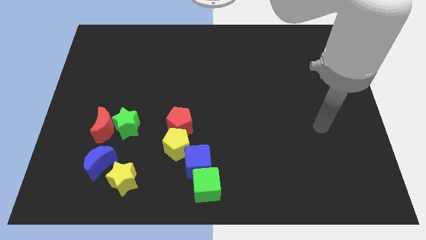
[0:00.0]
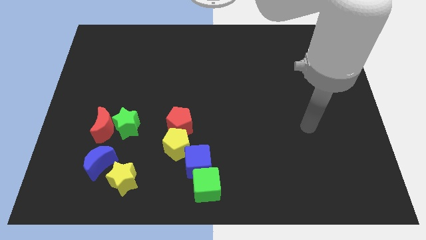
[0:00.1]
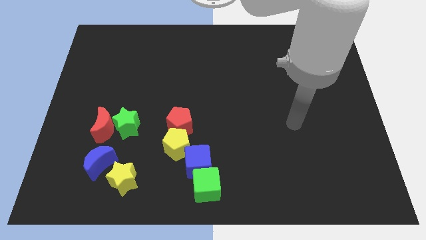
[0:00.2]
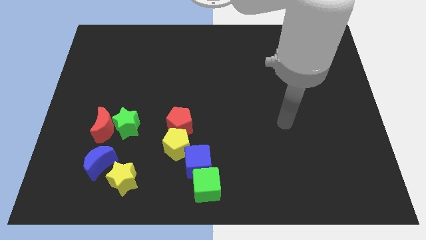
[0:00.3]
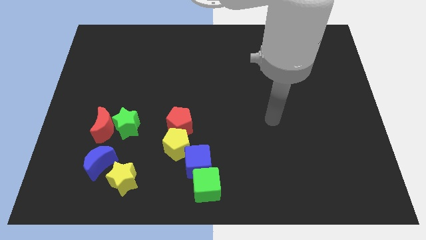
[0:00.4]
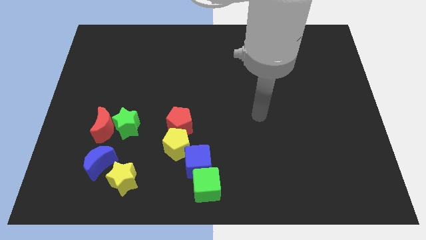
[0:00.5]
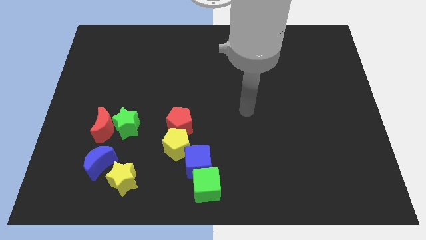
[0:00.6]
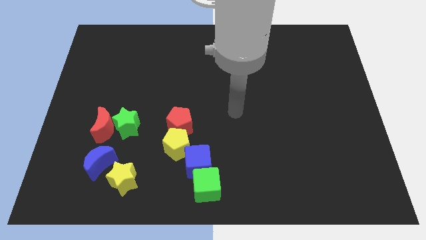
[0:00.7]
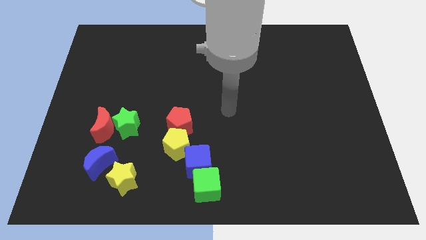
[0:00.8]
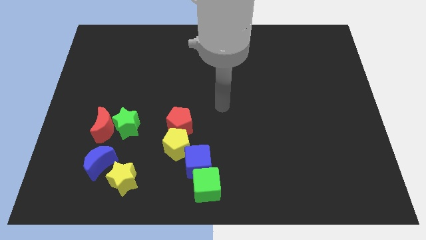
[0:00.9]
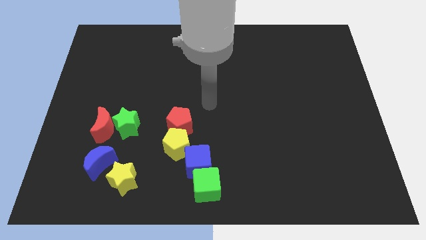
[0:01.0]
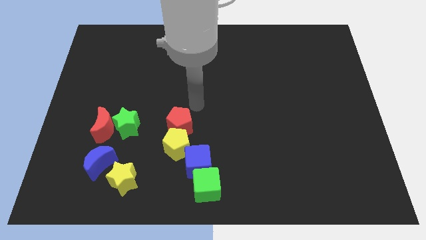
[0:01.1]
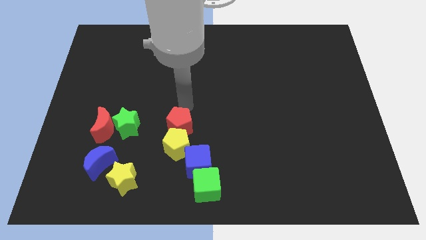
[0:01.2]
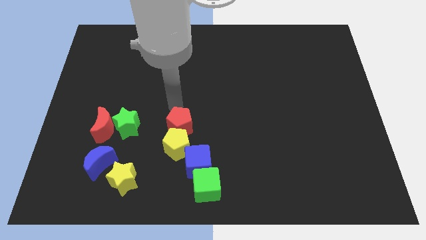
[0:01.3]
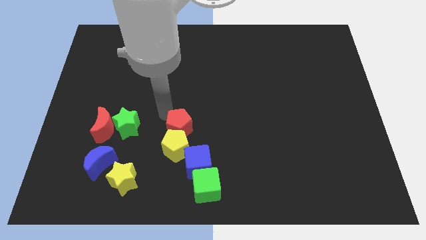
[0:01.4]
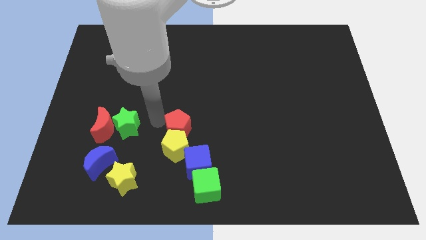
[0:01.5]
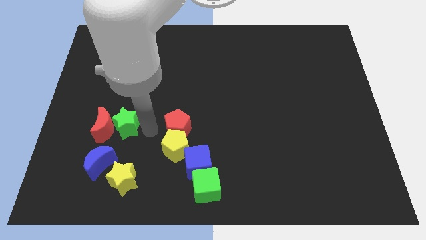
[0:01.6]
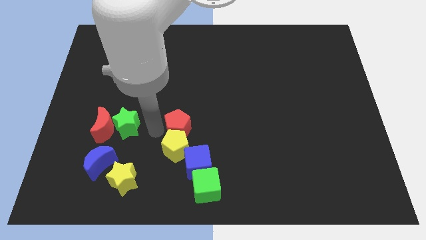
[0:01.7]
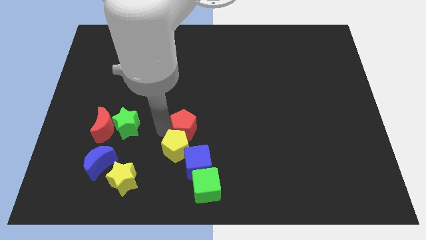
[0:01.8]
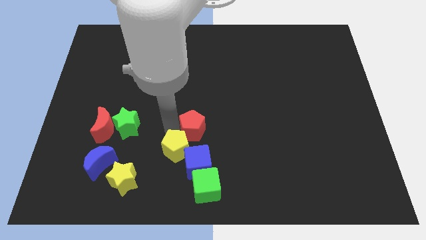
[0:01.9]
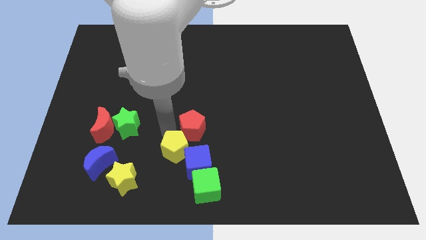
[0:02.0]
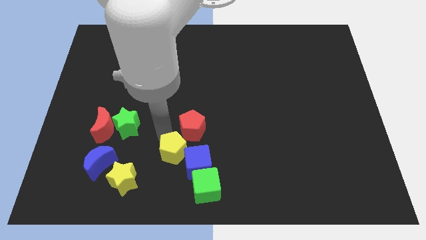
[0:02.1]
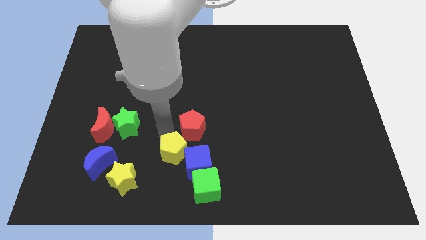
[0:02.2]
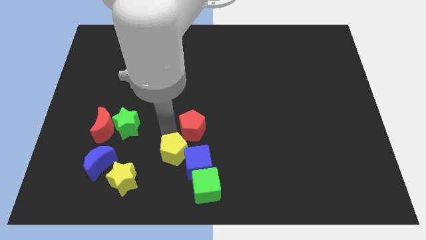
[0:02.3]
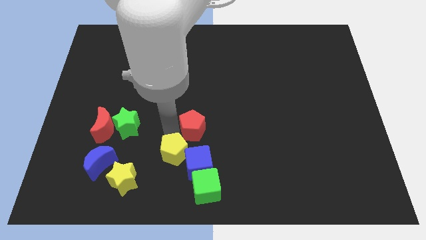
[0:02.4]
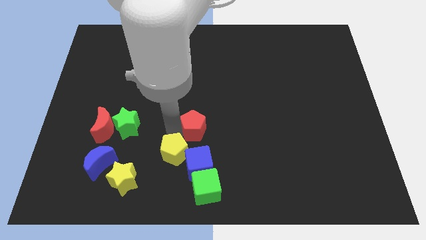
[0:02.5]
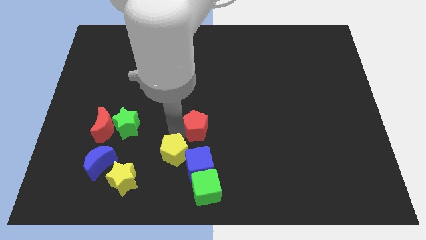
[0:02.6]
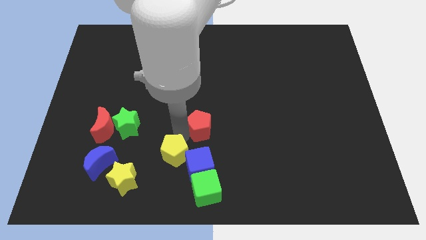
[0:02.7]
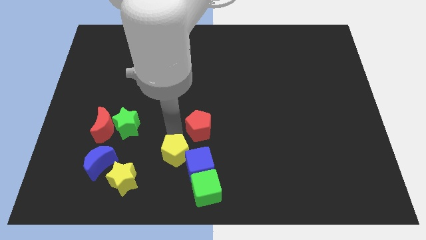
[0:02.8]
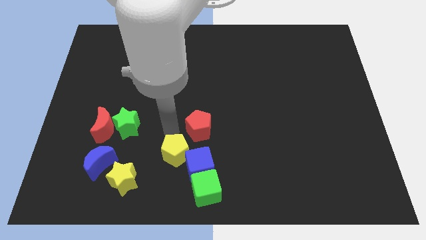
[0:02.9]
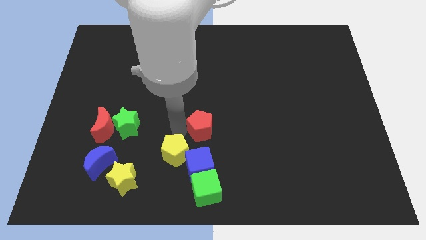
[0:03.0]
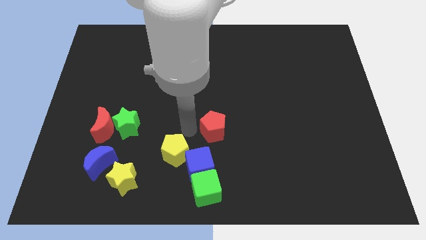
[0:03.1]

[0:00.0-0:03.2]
push the red pentagon to the right somewhat

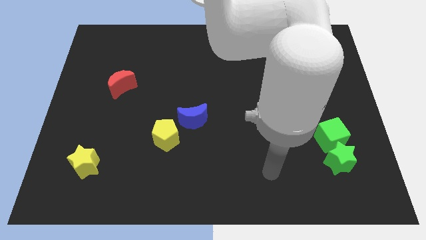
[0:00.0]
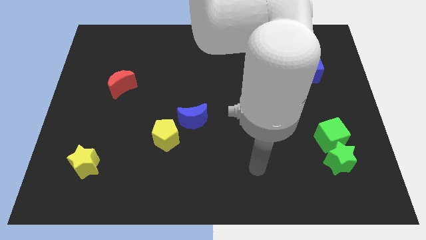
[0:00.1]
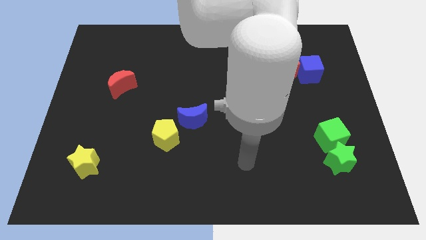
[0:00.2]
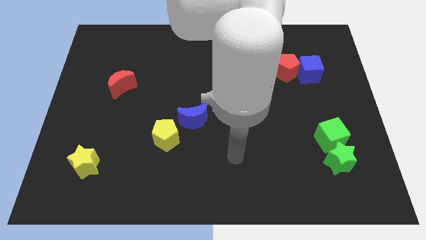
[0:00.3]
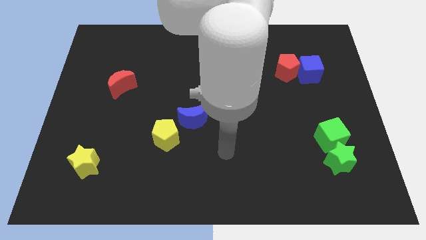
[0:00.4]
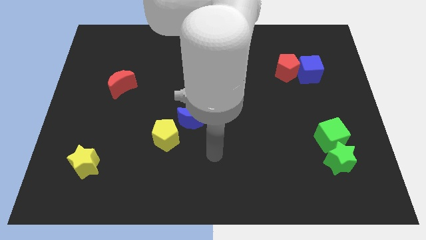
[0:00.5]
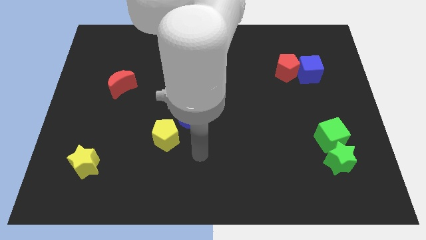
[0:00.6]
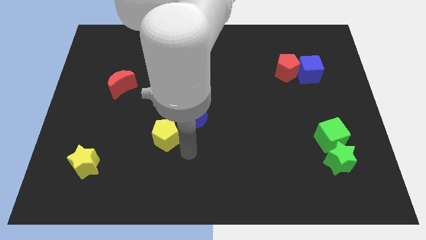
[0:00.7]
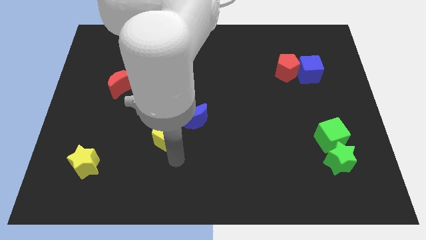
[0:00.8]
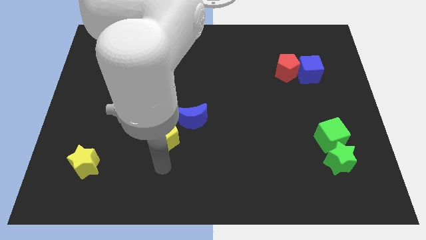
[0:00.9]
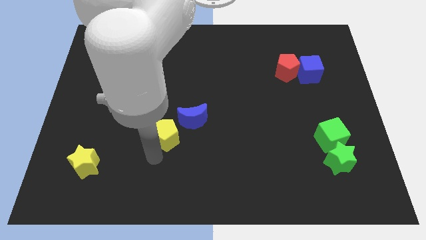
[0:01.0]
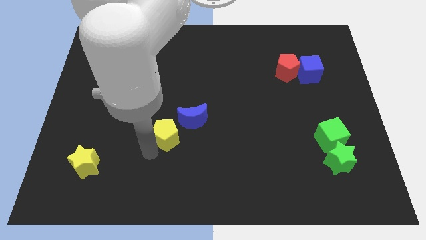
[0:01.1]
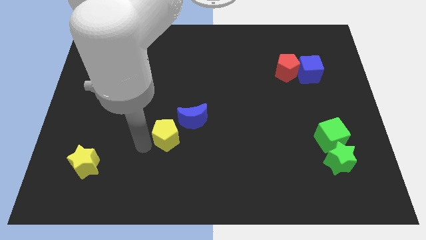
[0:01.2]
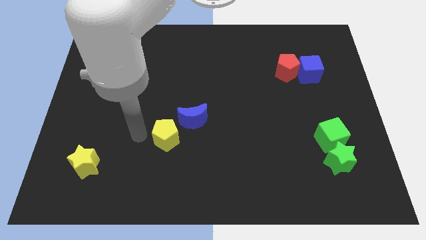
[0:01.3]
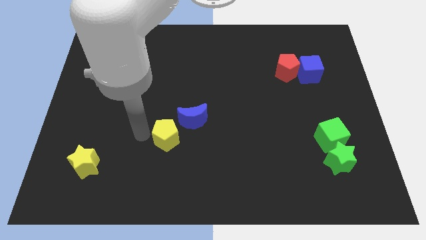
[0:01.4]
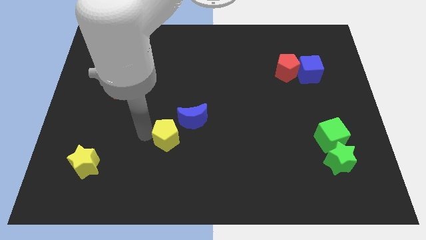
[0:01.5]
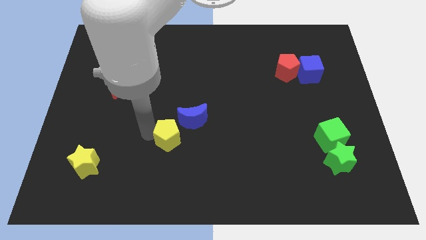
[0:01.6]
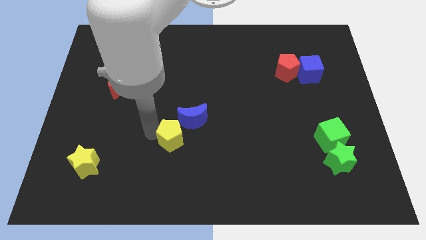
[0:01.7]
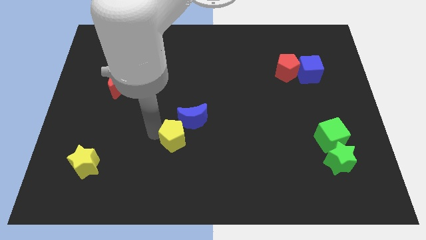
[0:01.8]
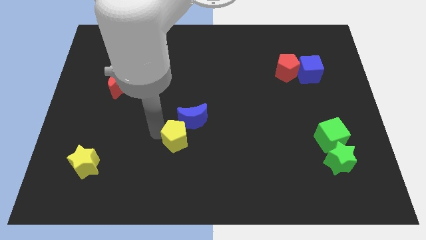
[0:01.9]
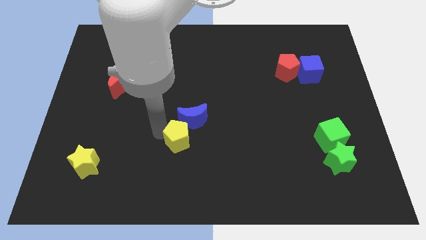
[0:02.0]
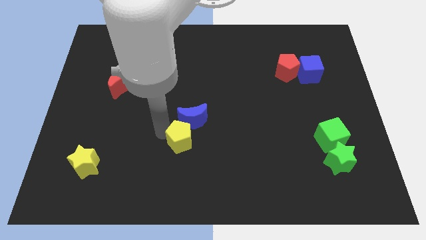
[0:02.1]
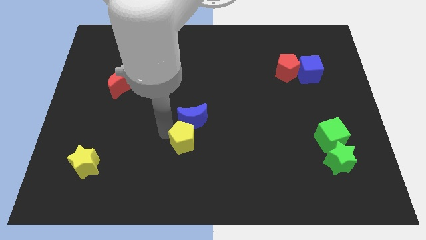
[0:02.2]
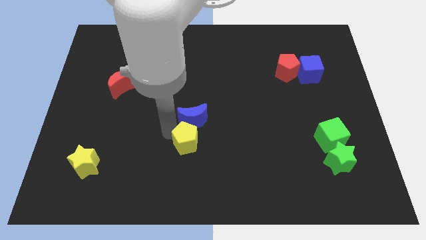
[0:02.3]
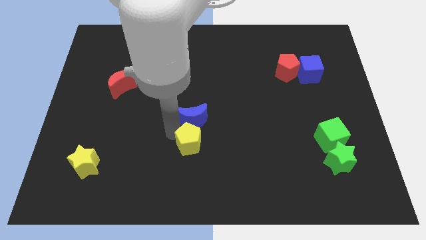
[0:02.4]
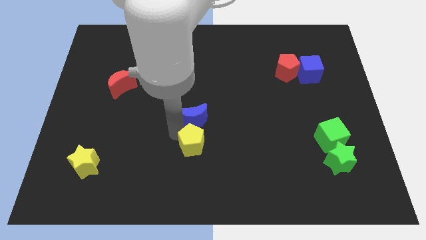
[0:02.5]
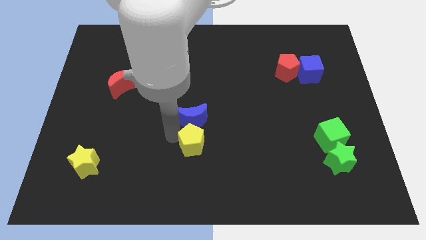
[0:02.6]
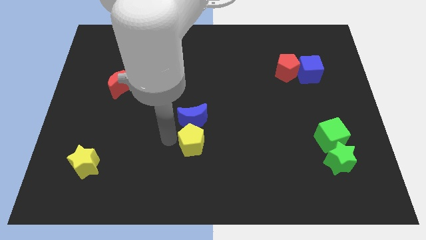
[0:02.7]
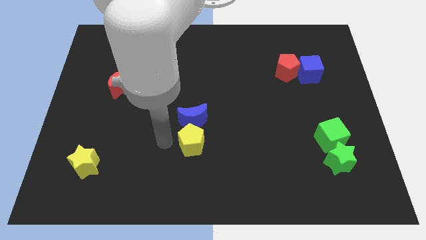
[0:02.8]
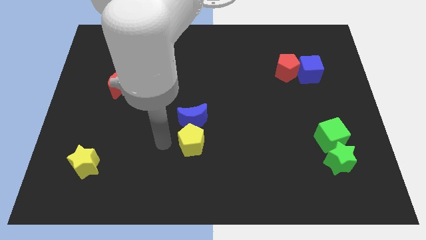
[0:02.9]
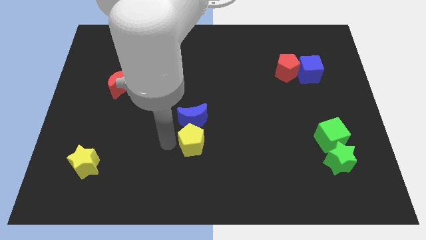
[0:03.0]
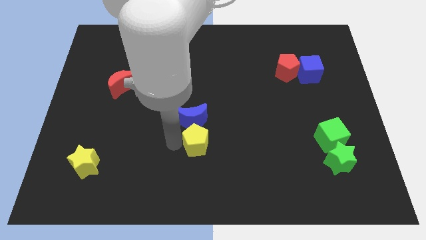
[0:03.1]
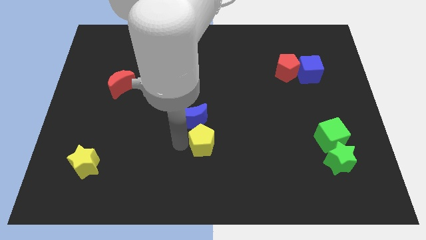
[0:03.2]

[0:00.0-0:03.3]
slide the yellow pentagon to the right slightly

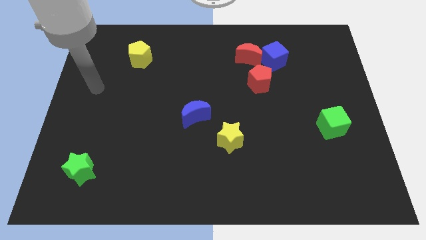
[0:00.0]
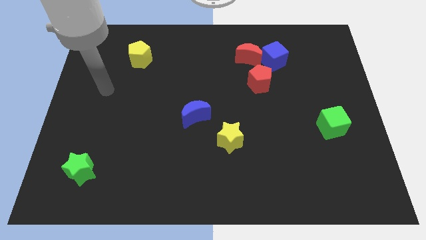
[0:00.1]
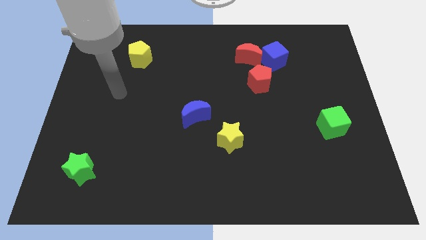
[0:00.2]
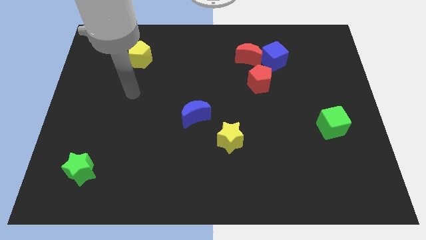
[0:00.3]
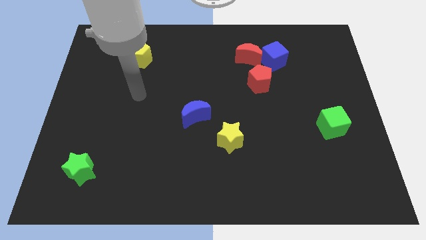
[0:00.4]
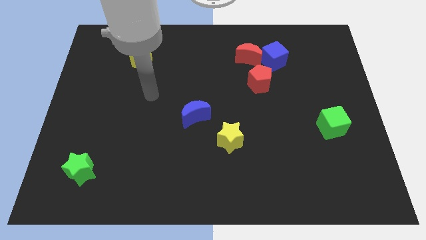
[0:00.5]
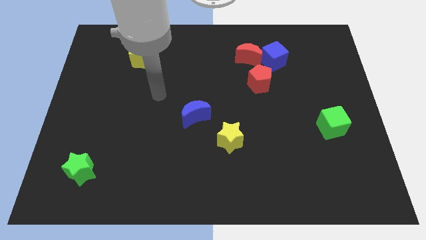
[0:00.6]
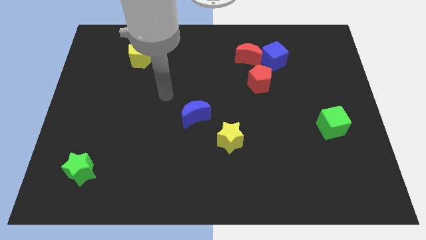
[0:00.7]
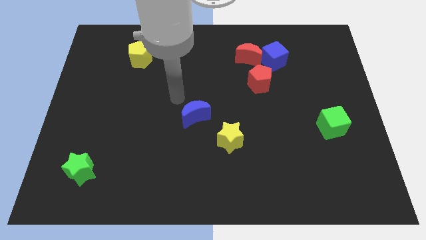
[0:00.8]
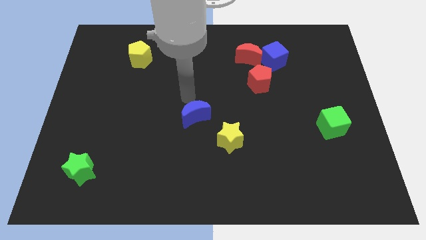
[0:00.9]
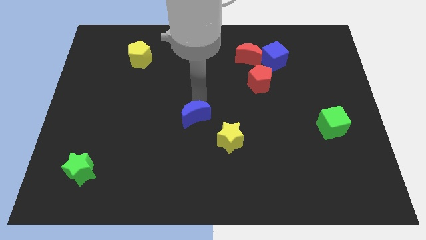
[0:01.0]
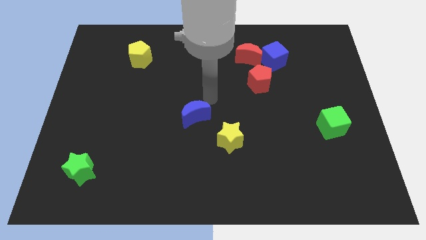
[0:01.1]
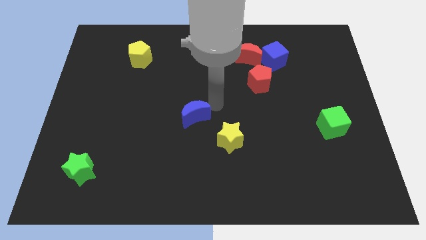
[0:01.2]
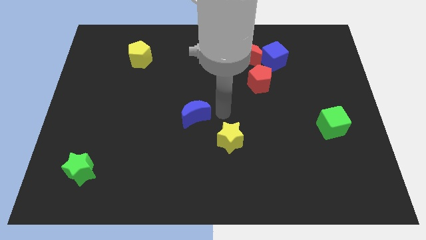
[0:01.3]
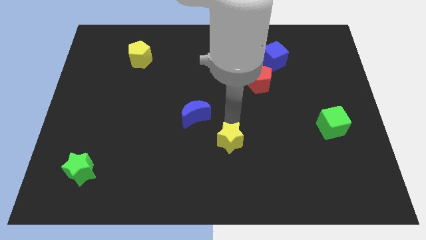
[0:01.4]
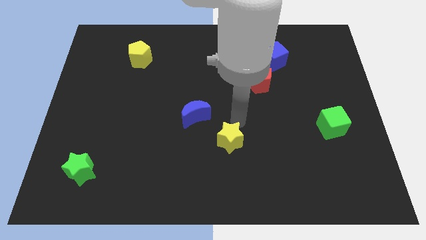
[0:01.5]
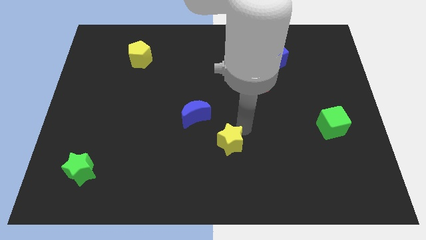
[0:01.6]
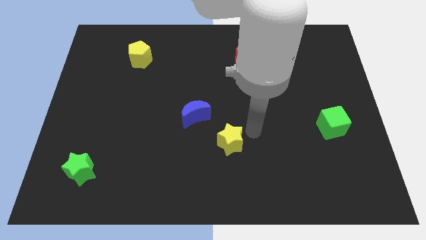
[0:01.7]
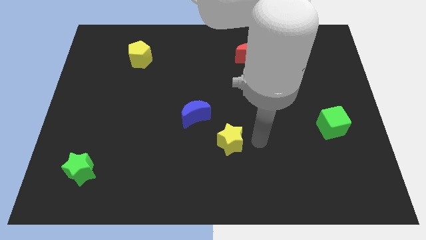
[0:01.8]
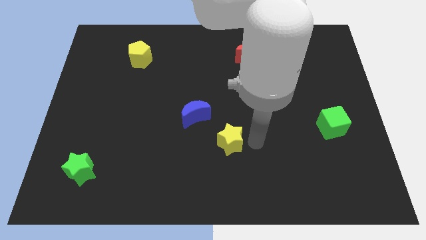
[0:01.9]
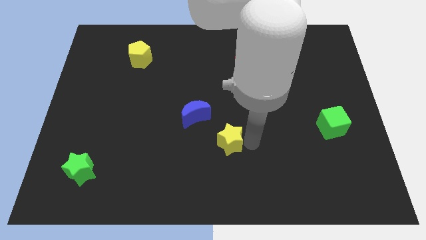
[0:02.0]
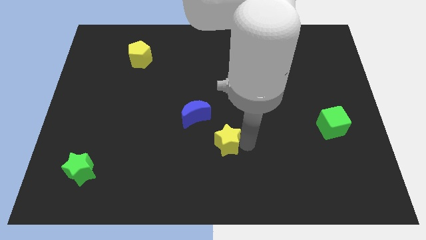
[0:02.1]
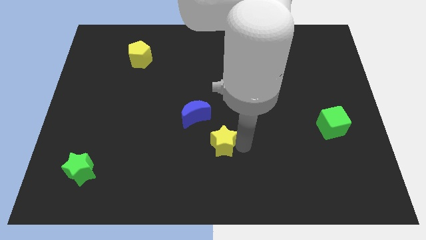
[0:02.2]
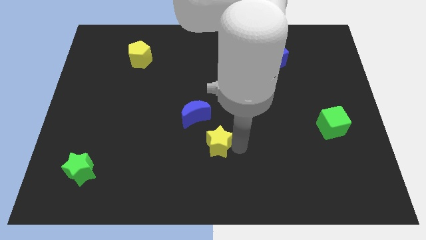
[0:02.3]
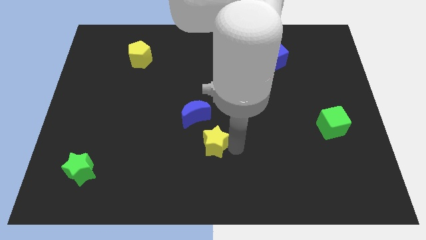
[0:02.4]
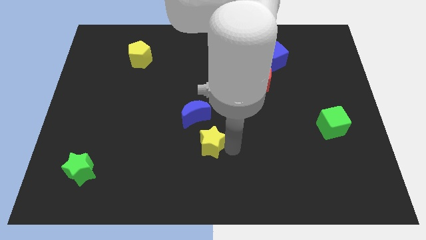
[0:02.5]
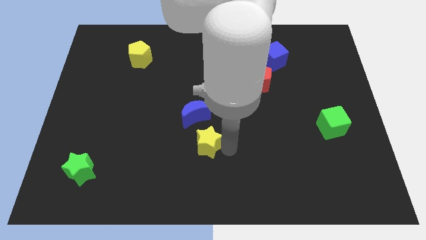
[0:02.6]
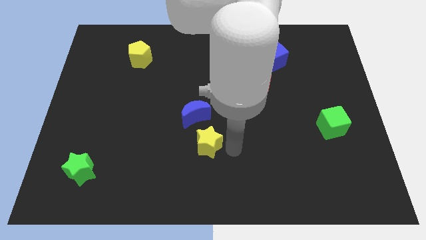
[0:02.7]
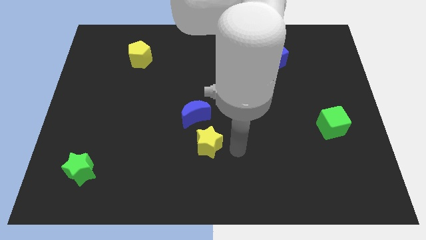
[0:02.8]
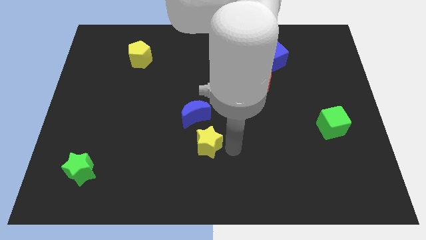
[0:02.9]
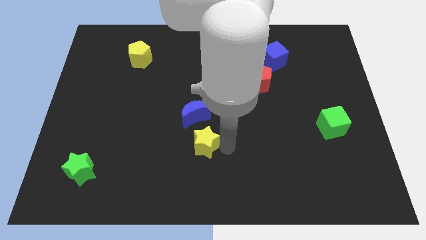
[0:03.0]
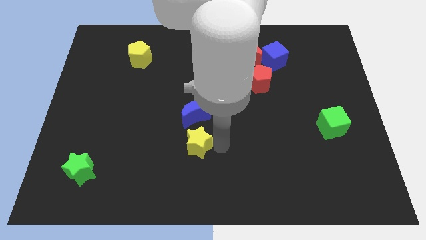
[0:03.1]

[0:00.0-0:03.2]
slide the yellow star to the left a little
